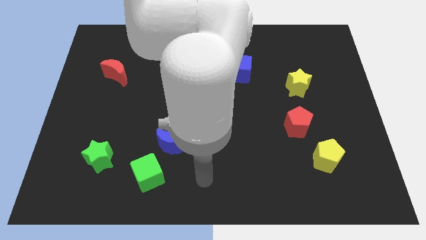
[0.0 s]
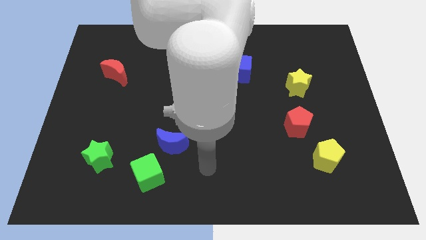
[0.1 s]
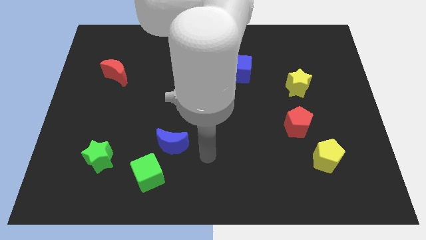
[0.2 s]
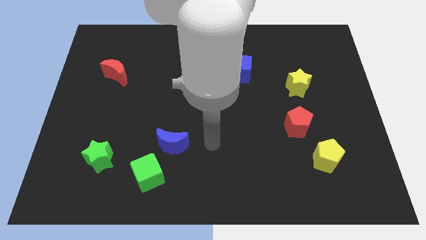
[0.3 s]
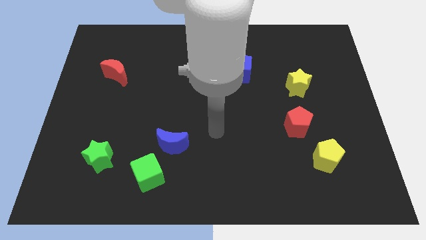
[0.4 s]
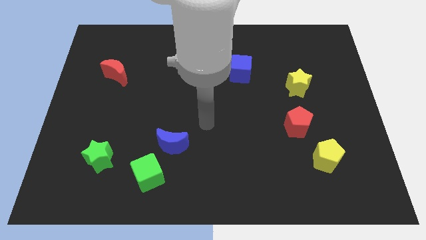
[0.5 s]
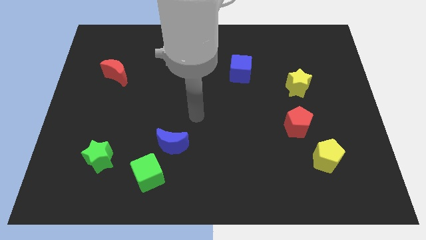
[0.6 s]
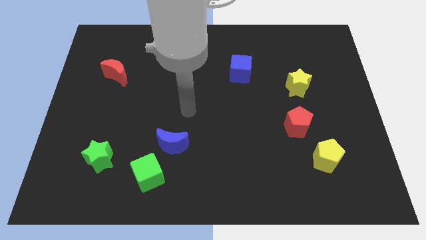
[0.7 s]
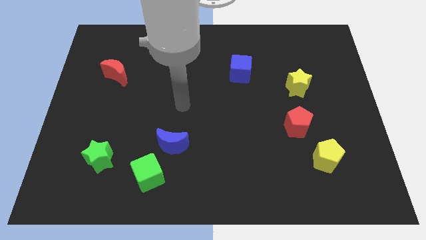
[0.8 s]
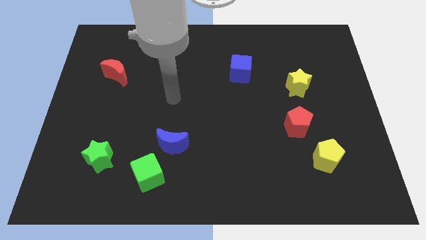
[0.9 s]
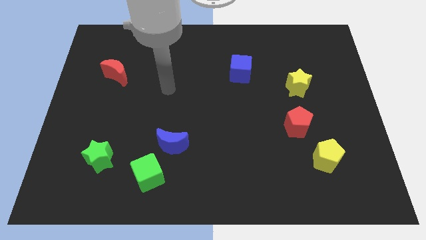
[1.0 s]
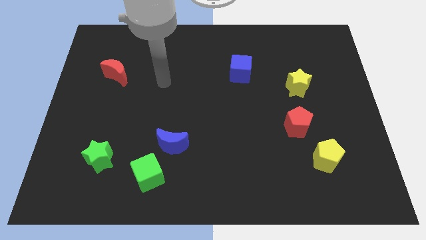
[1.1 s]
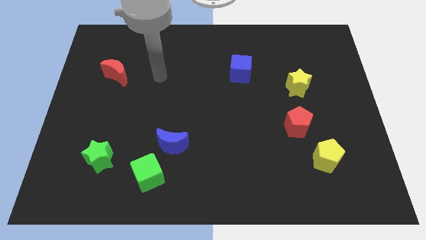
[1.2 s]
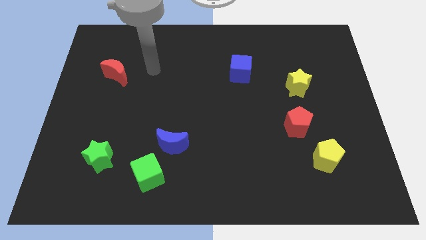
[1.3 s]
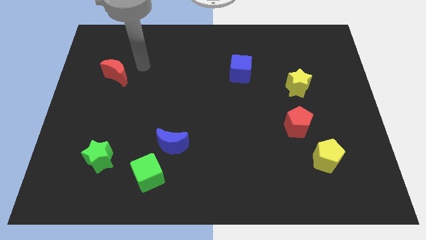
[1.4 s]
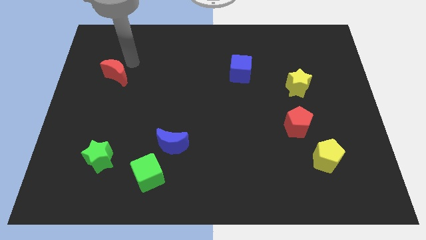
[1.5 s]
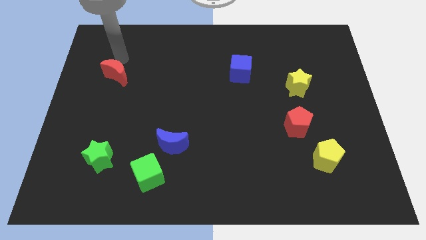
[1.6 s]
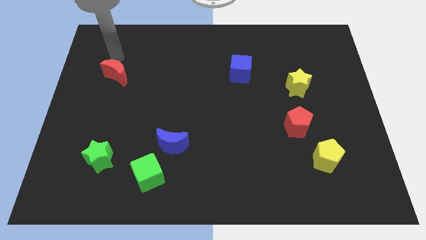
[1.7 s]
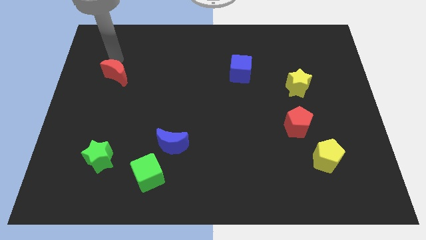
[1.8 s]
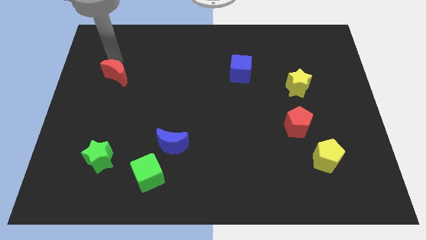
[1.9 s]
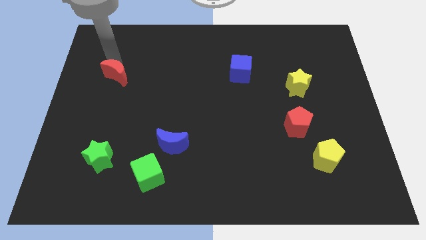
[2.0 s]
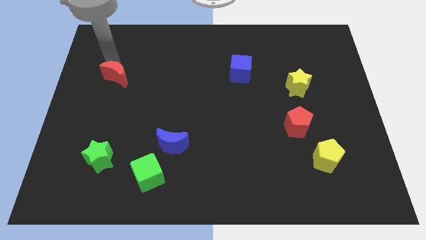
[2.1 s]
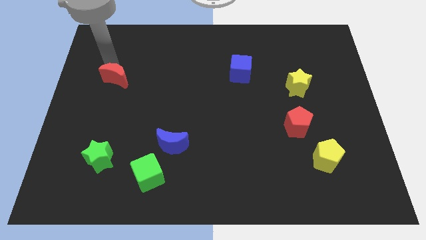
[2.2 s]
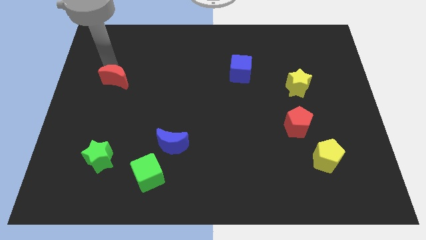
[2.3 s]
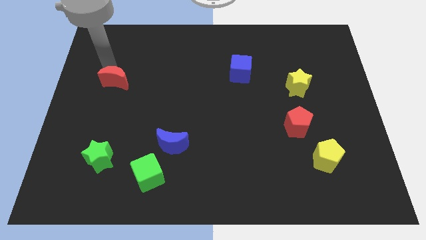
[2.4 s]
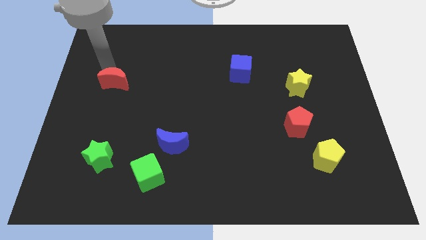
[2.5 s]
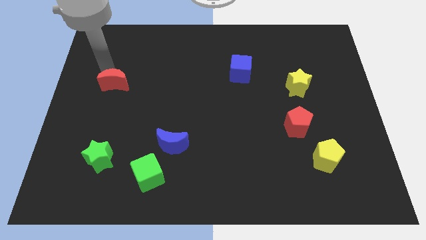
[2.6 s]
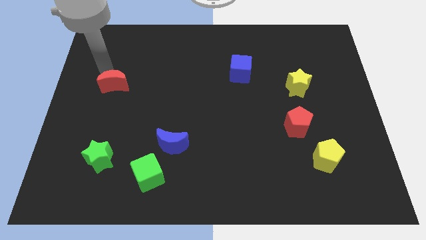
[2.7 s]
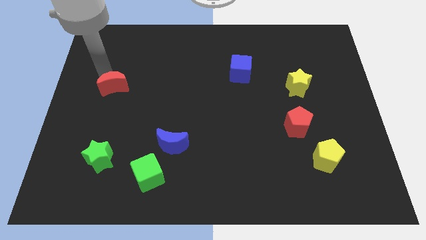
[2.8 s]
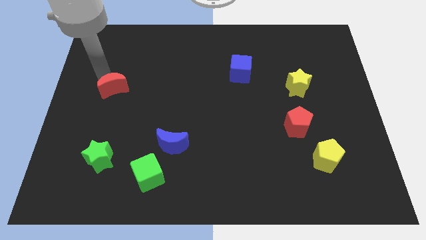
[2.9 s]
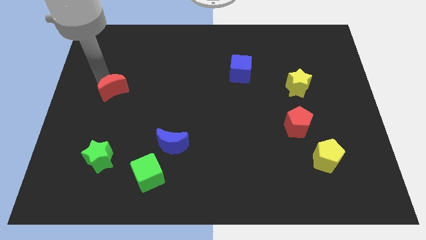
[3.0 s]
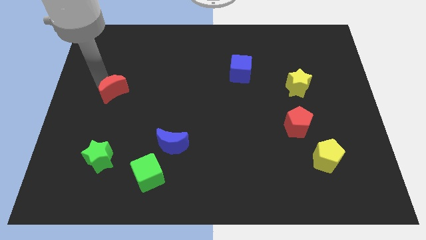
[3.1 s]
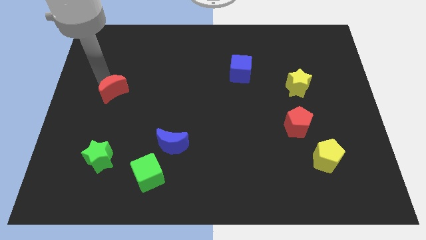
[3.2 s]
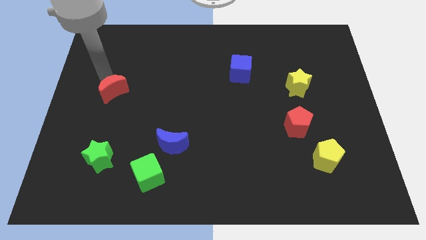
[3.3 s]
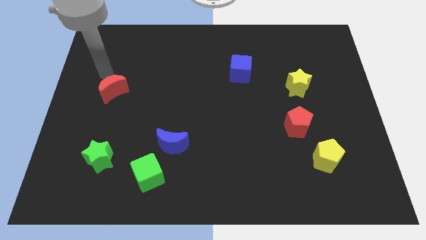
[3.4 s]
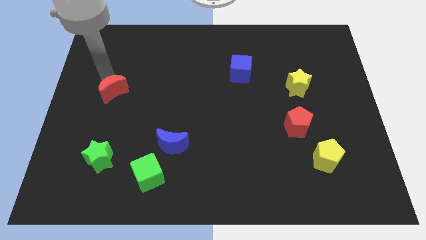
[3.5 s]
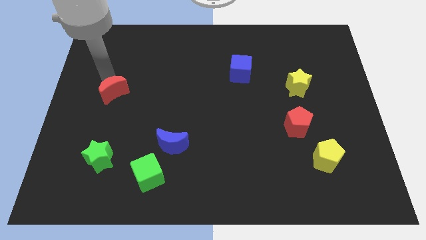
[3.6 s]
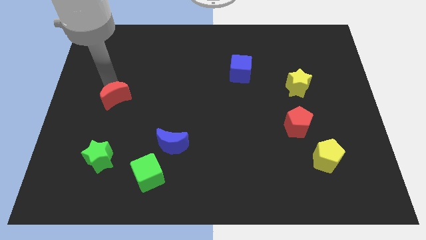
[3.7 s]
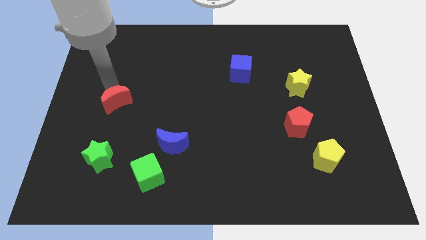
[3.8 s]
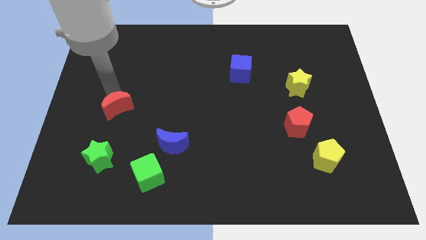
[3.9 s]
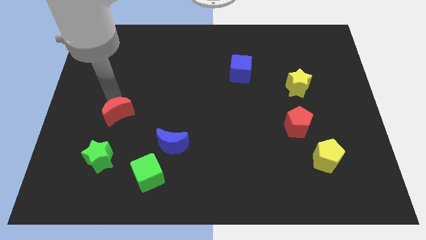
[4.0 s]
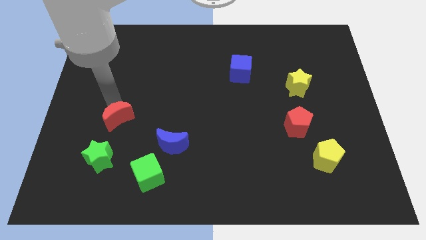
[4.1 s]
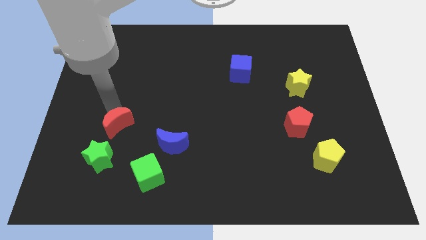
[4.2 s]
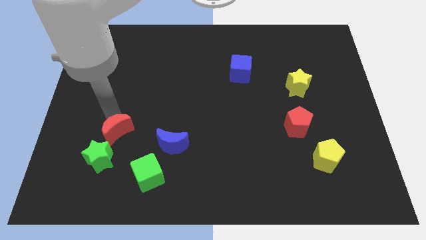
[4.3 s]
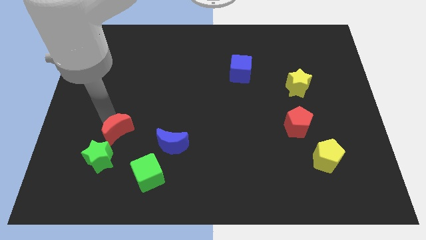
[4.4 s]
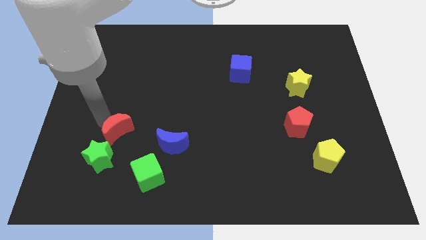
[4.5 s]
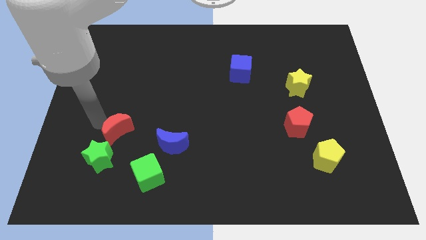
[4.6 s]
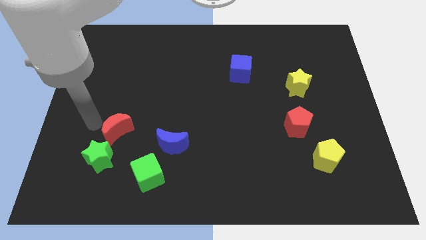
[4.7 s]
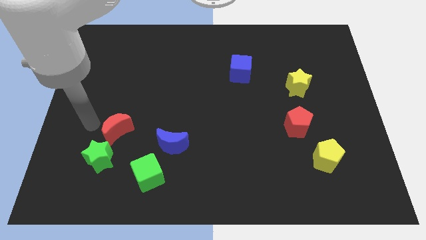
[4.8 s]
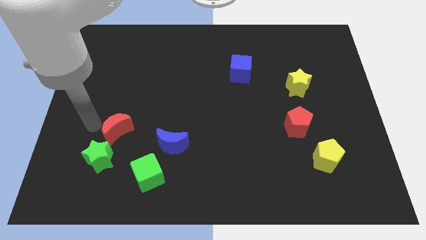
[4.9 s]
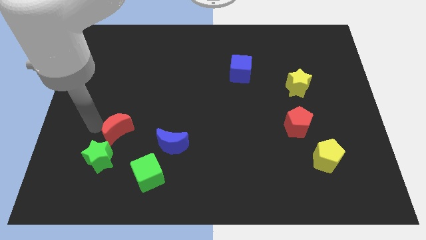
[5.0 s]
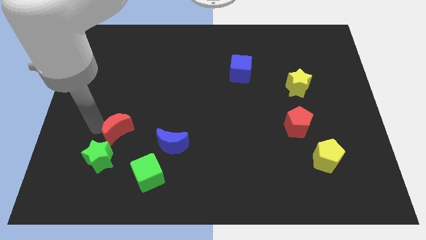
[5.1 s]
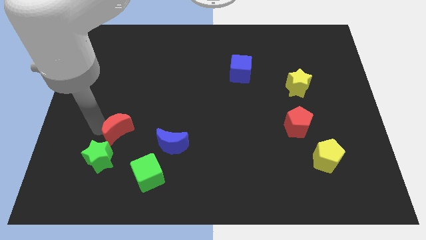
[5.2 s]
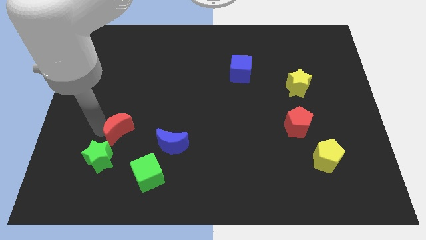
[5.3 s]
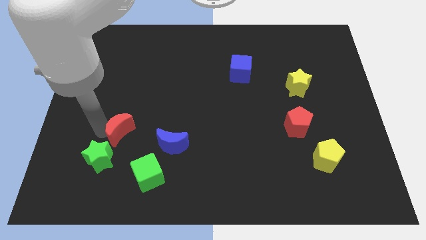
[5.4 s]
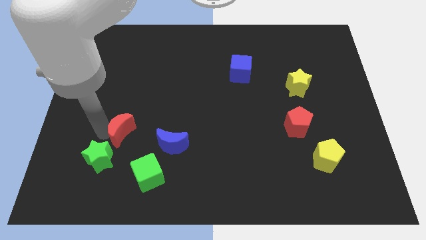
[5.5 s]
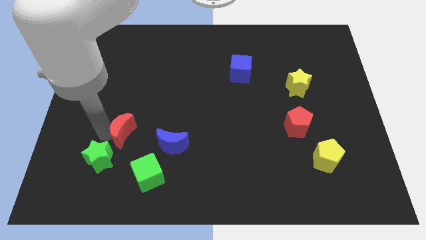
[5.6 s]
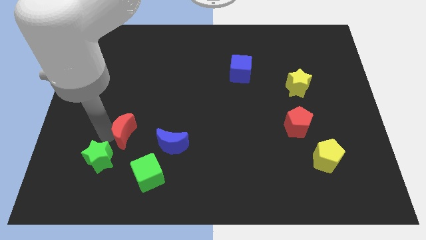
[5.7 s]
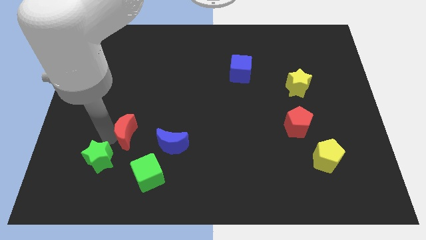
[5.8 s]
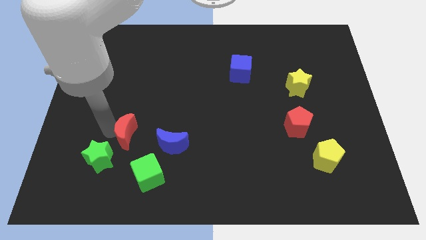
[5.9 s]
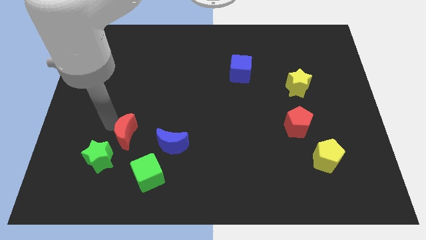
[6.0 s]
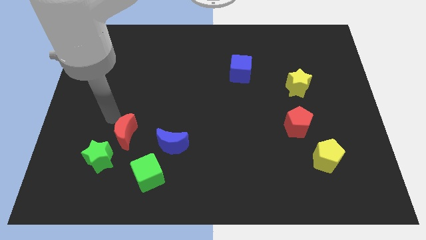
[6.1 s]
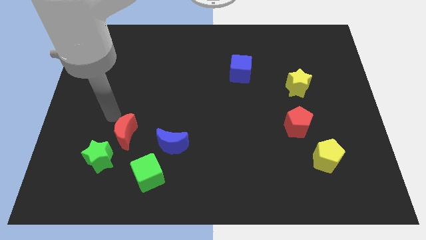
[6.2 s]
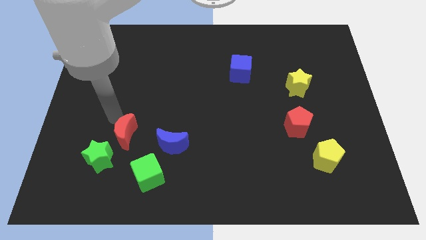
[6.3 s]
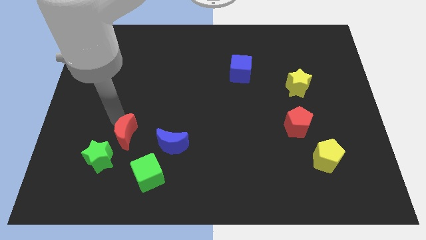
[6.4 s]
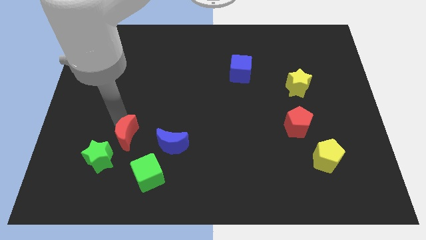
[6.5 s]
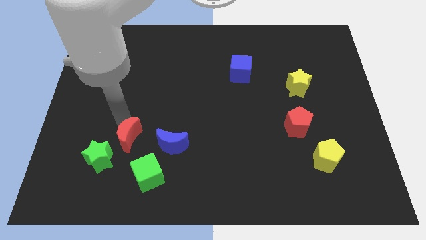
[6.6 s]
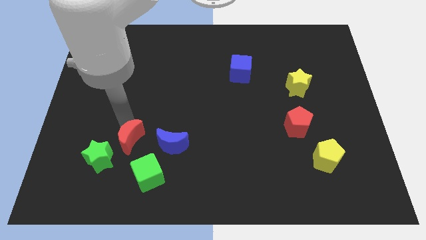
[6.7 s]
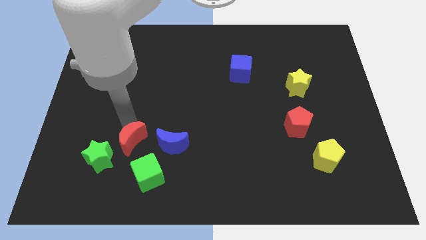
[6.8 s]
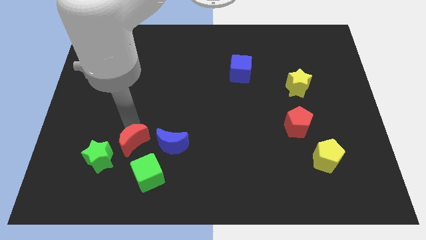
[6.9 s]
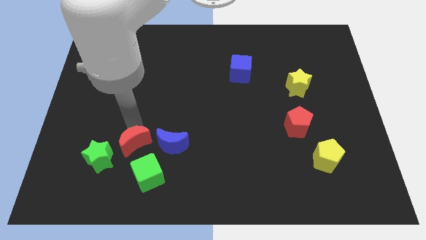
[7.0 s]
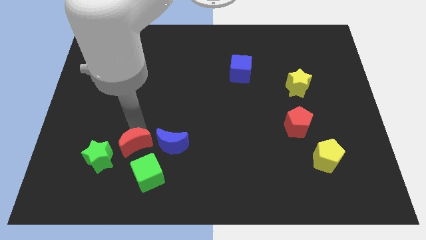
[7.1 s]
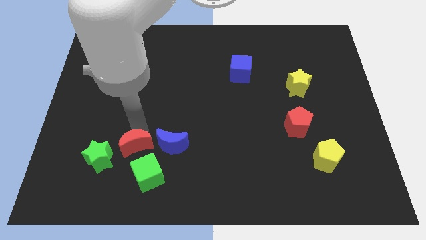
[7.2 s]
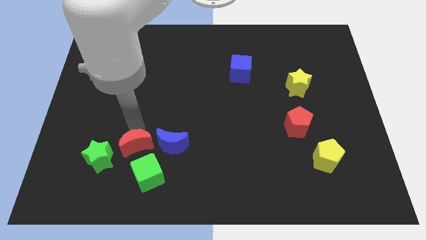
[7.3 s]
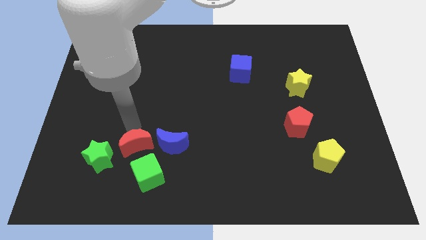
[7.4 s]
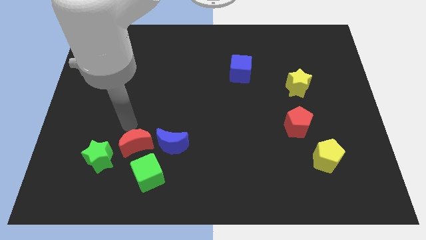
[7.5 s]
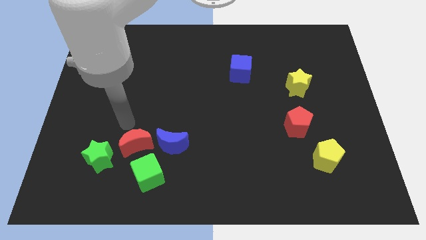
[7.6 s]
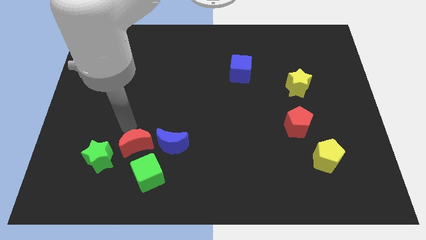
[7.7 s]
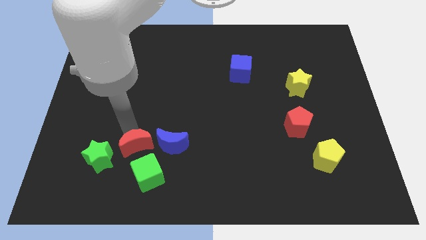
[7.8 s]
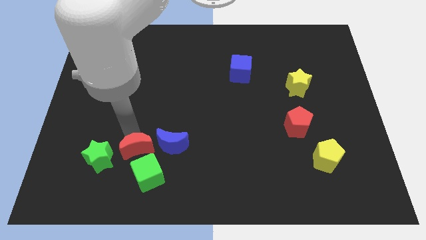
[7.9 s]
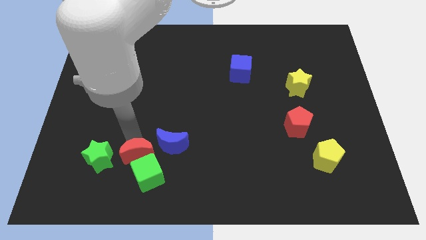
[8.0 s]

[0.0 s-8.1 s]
move the red moon to the green cube
